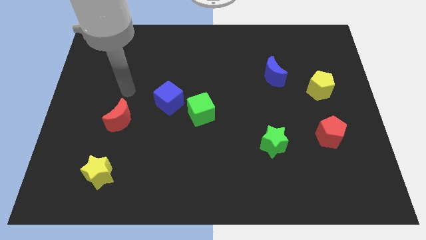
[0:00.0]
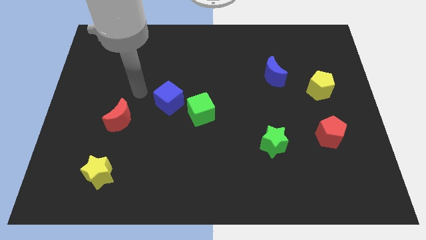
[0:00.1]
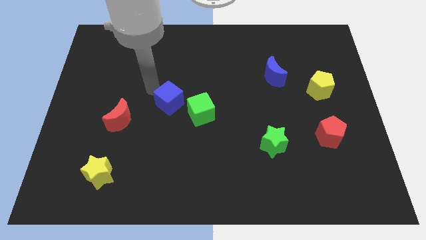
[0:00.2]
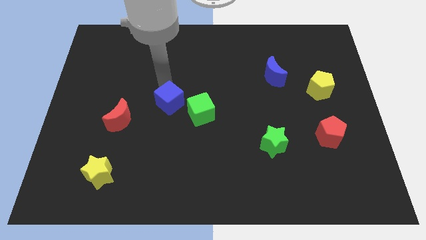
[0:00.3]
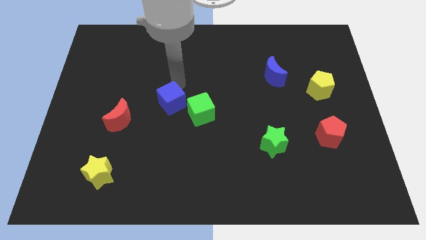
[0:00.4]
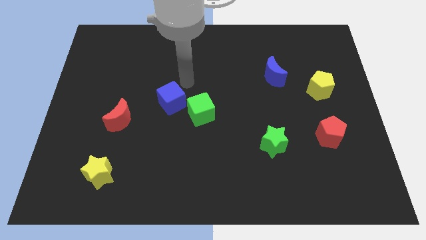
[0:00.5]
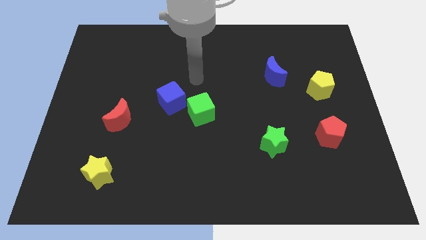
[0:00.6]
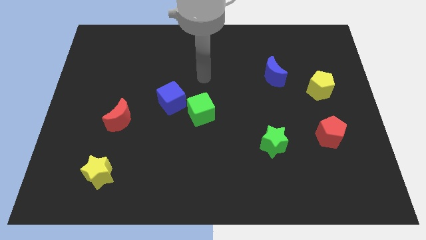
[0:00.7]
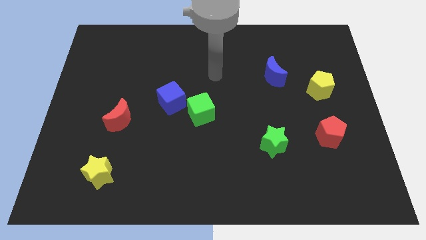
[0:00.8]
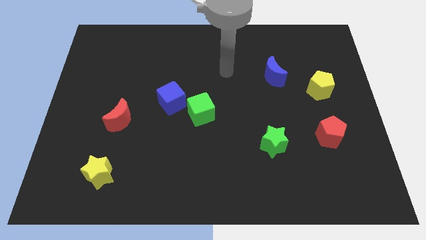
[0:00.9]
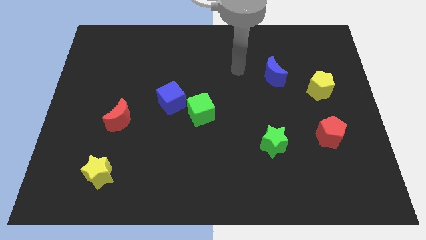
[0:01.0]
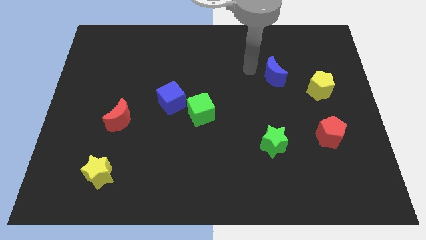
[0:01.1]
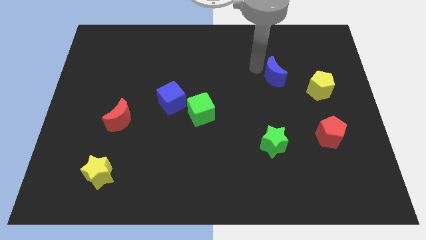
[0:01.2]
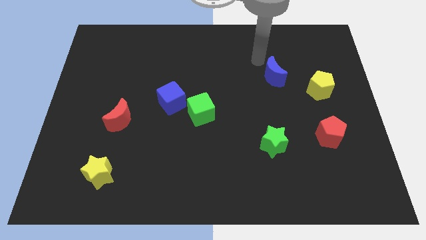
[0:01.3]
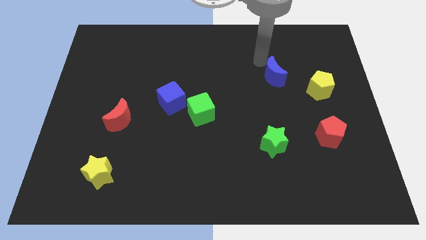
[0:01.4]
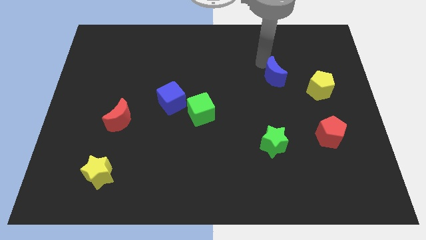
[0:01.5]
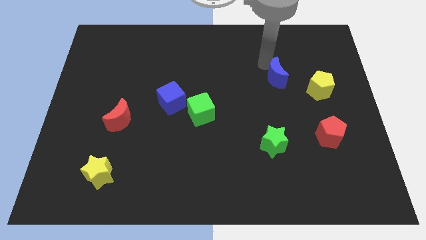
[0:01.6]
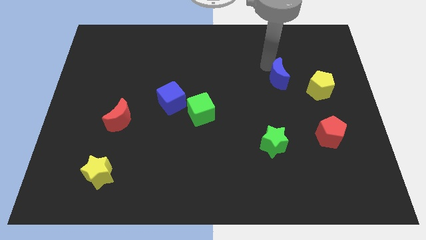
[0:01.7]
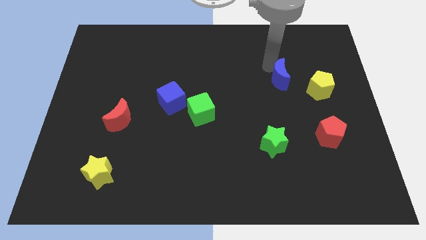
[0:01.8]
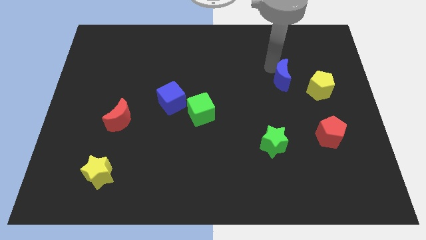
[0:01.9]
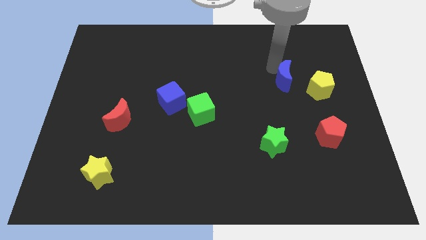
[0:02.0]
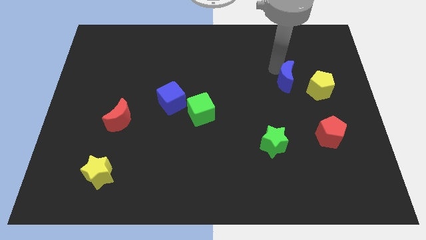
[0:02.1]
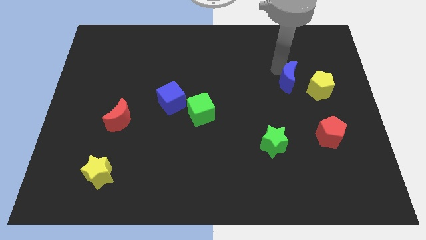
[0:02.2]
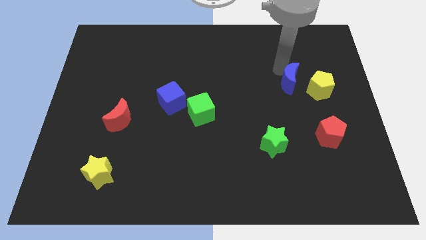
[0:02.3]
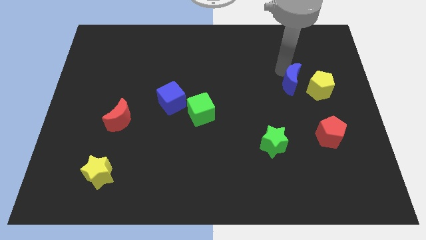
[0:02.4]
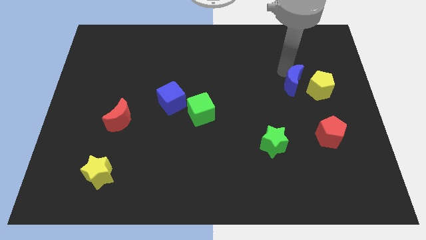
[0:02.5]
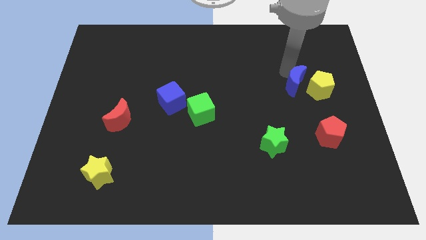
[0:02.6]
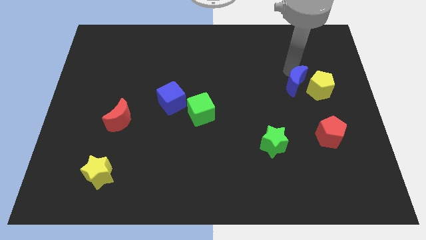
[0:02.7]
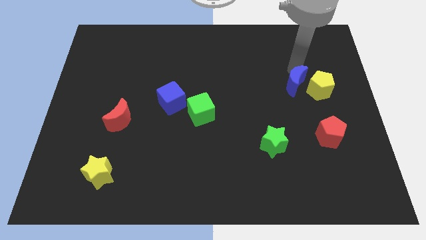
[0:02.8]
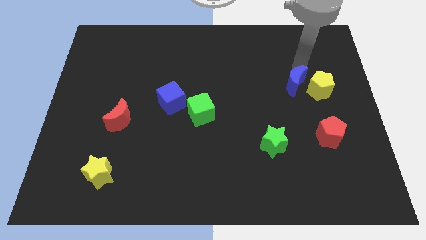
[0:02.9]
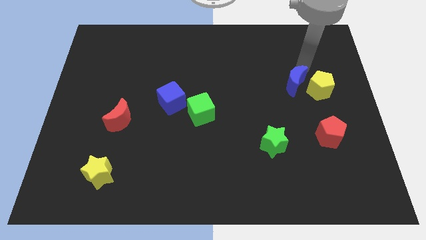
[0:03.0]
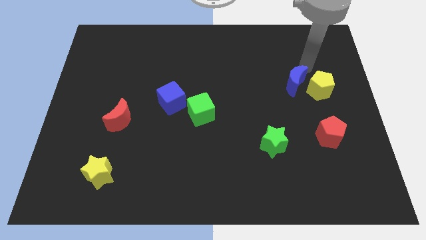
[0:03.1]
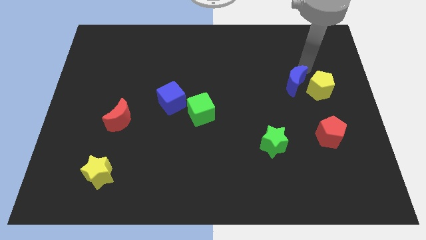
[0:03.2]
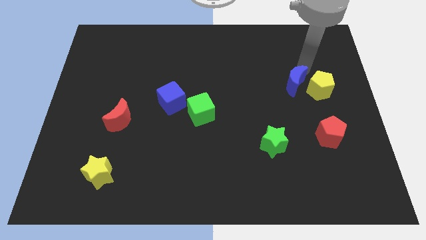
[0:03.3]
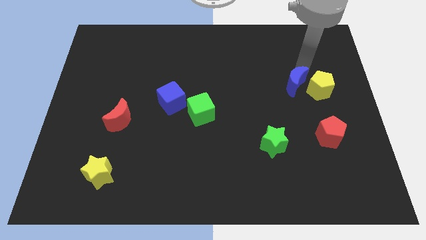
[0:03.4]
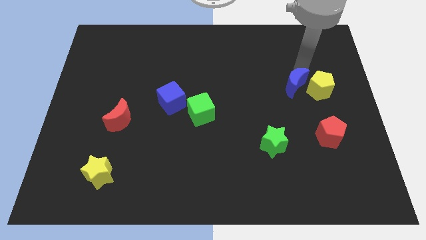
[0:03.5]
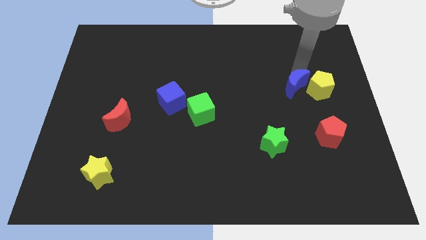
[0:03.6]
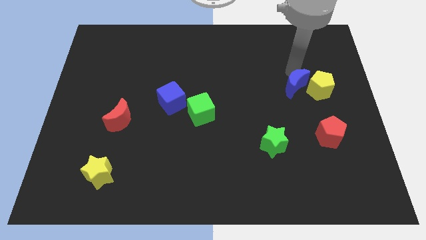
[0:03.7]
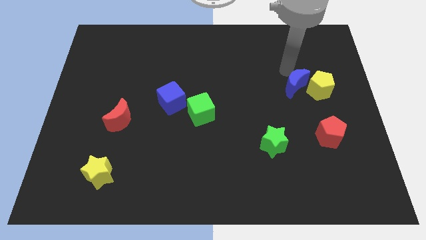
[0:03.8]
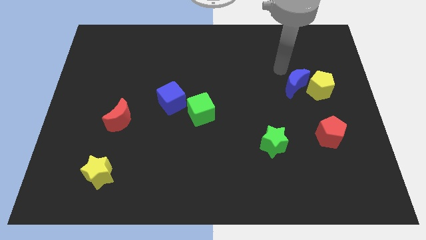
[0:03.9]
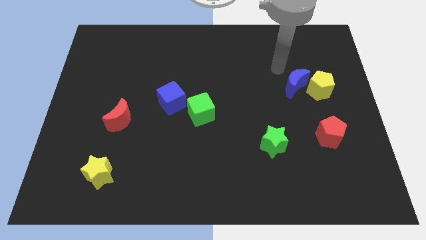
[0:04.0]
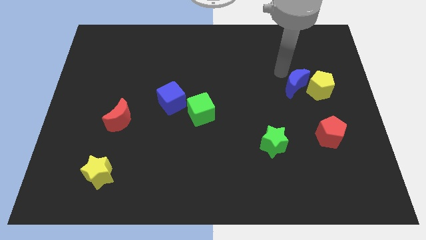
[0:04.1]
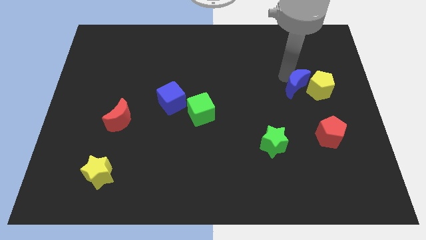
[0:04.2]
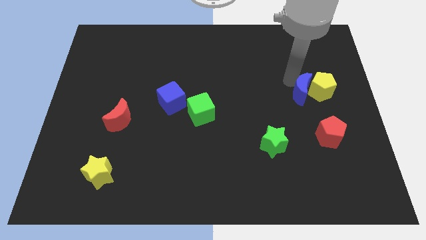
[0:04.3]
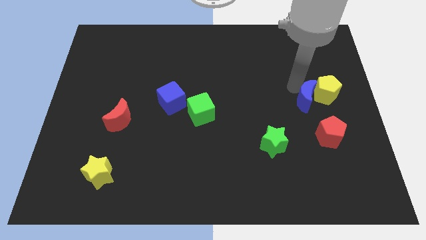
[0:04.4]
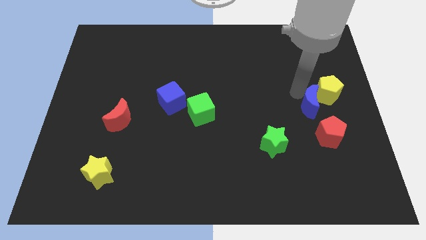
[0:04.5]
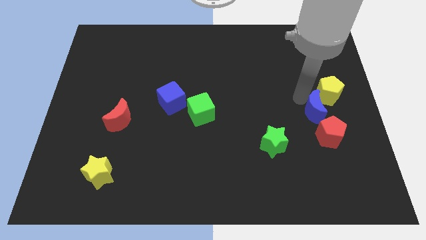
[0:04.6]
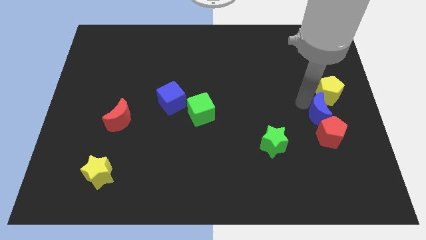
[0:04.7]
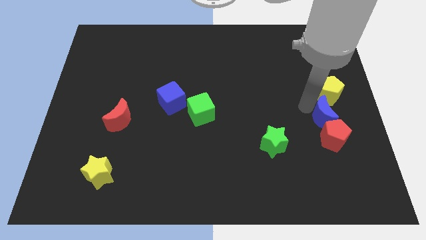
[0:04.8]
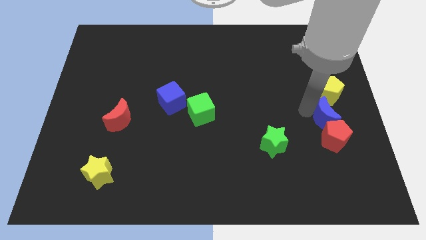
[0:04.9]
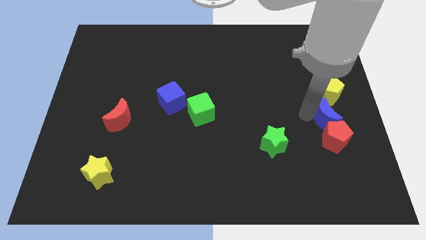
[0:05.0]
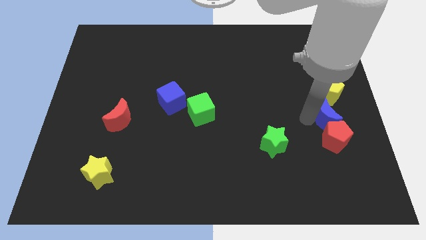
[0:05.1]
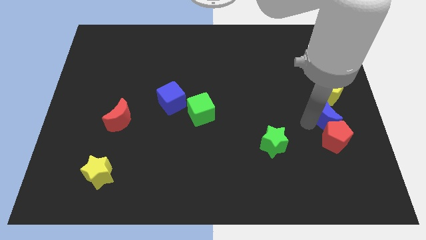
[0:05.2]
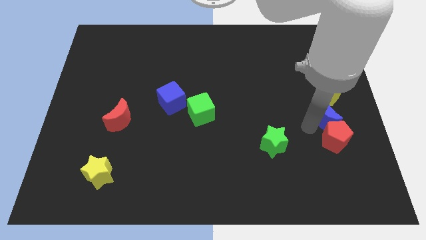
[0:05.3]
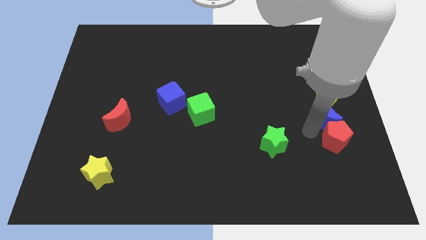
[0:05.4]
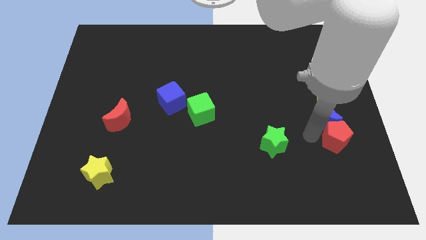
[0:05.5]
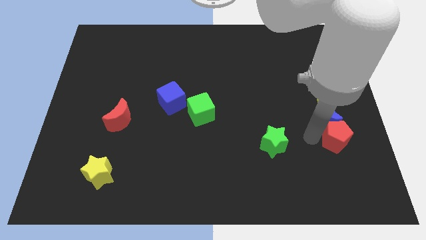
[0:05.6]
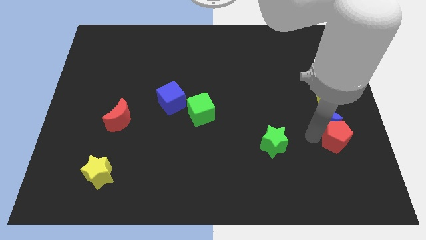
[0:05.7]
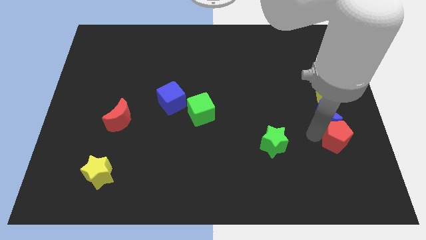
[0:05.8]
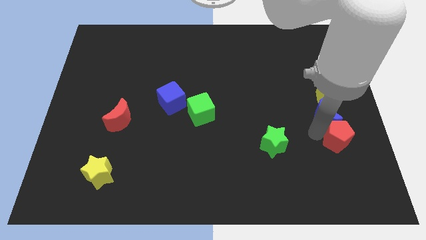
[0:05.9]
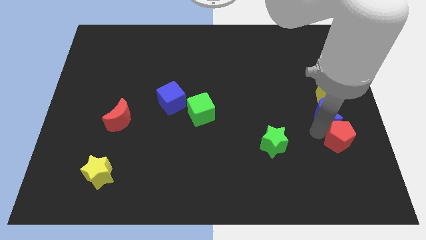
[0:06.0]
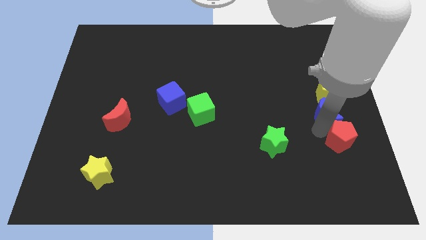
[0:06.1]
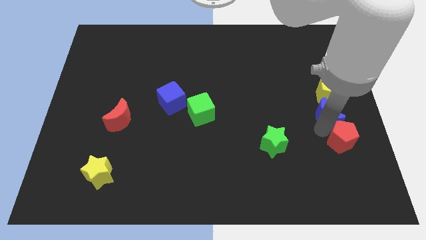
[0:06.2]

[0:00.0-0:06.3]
put the blue moon to the right side

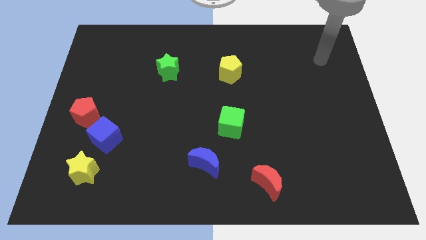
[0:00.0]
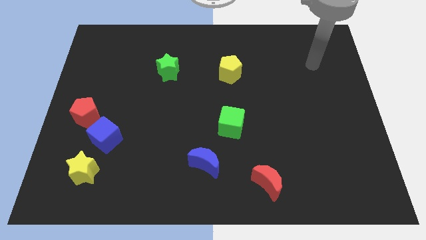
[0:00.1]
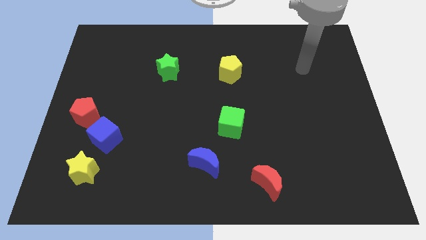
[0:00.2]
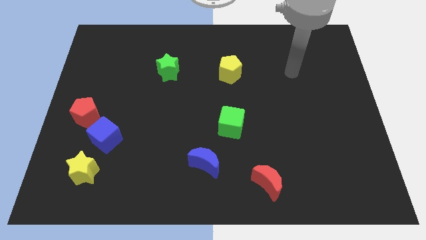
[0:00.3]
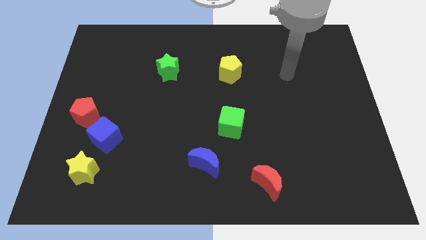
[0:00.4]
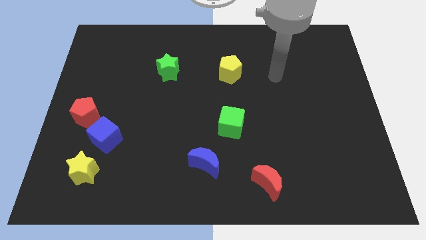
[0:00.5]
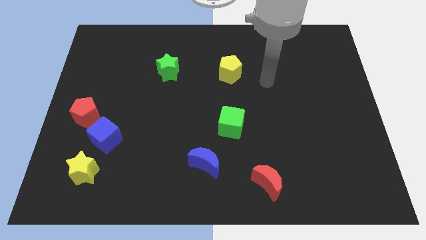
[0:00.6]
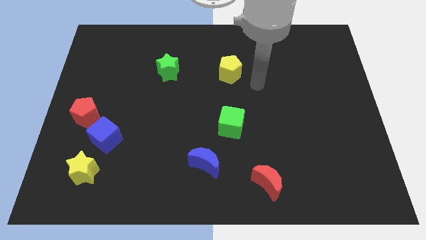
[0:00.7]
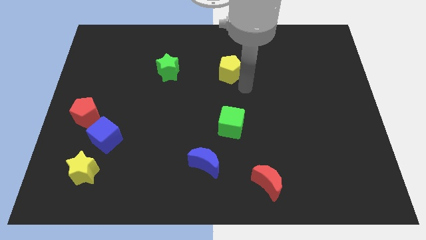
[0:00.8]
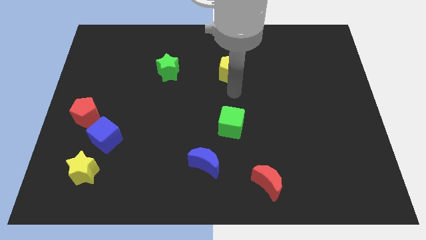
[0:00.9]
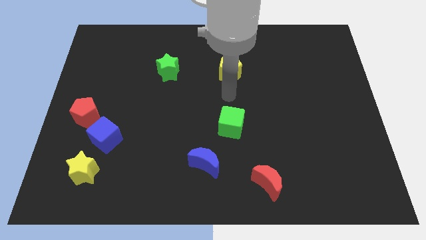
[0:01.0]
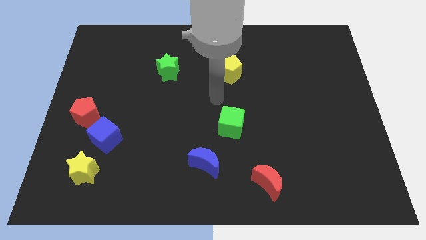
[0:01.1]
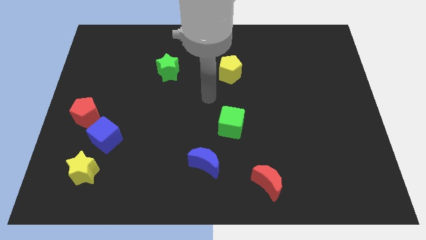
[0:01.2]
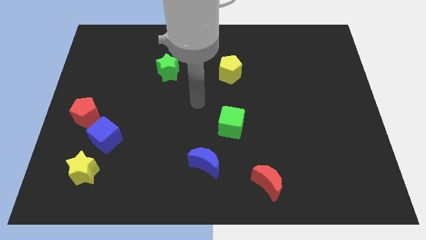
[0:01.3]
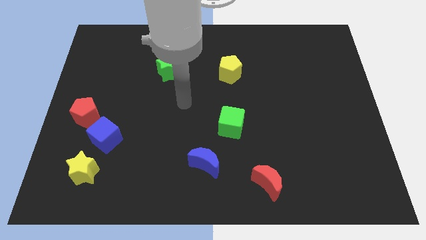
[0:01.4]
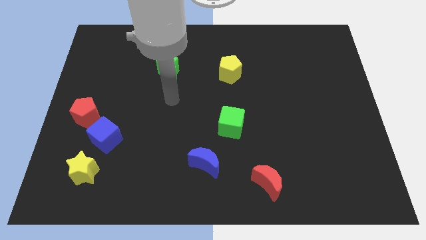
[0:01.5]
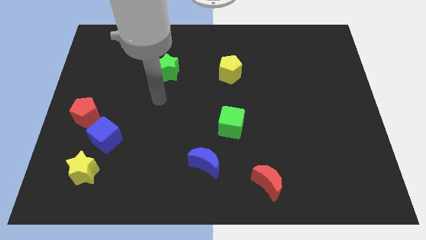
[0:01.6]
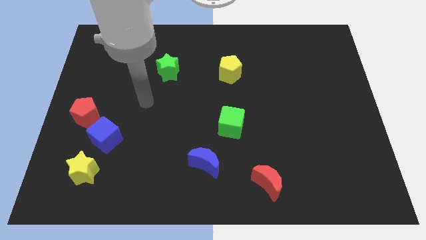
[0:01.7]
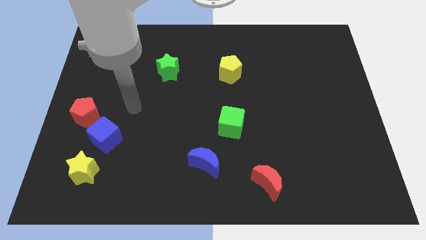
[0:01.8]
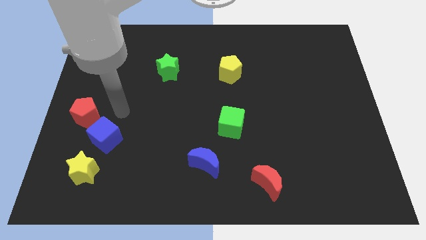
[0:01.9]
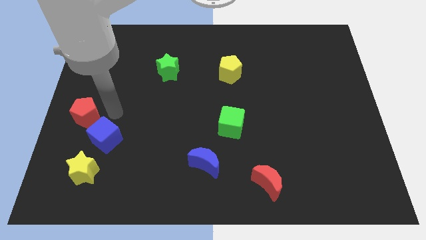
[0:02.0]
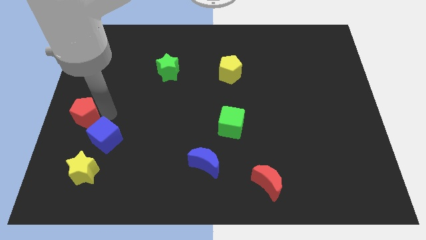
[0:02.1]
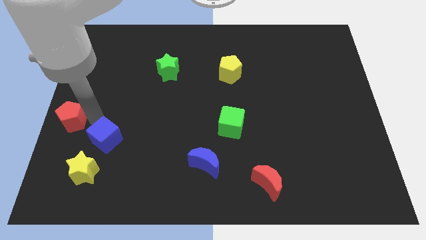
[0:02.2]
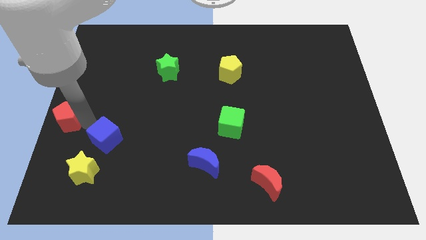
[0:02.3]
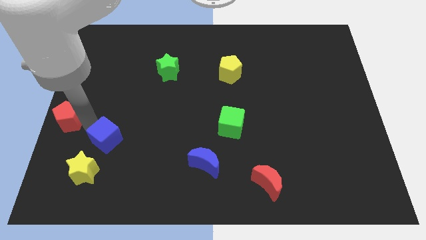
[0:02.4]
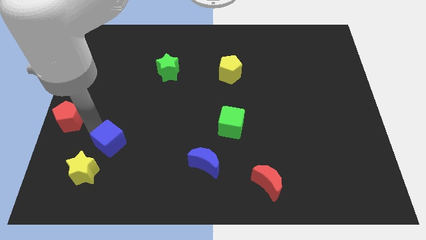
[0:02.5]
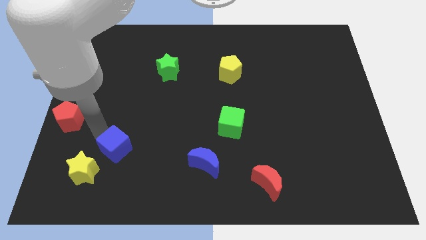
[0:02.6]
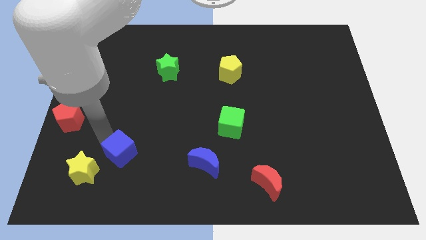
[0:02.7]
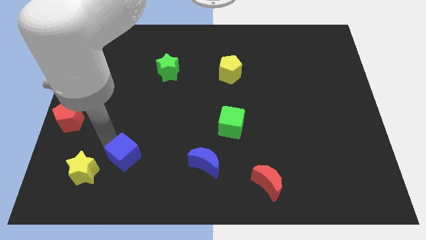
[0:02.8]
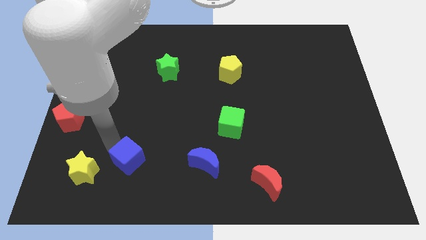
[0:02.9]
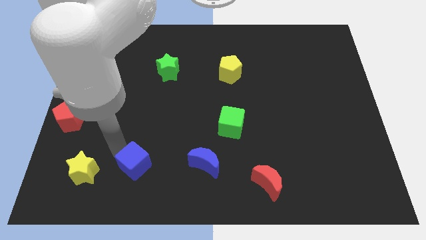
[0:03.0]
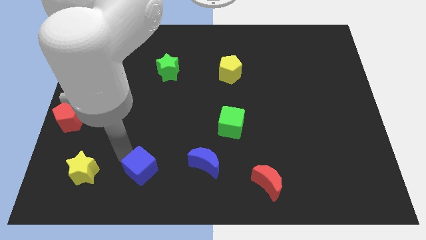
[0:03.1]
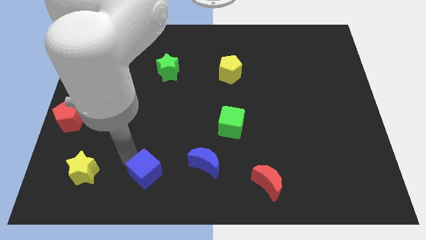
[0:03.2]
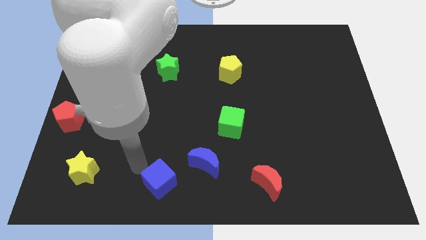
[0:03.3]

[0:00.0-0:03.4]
move the blue cube to the bottom side
